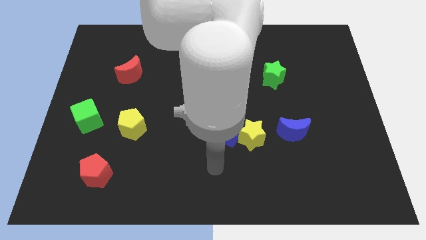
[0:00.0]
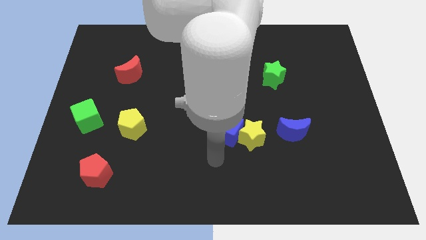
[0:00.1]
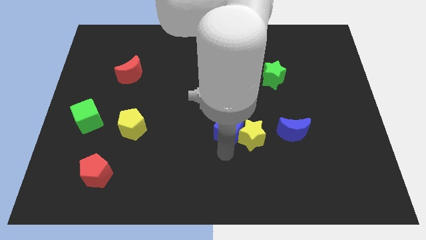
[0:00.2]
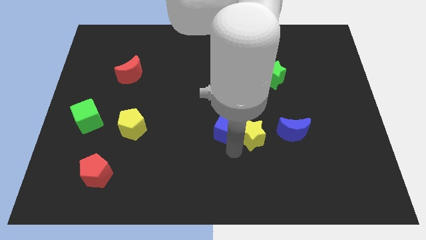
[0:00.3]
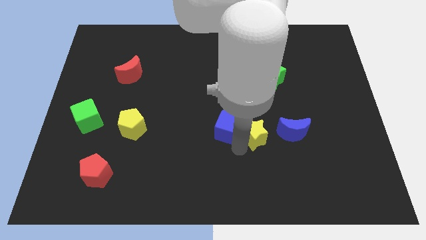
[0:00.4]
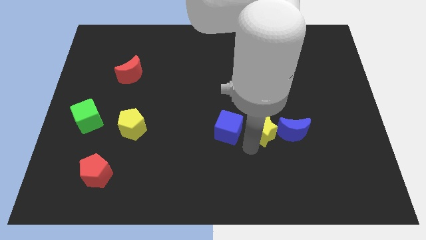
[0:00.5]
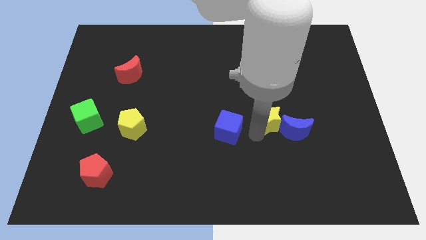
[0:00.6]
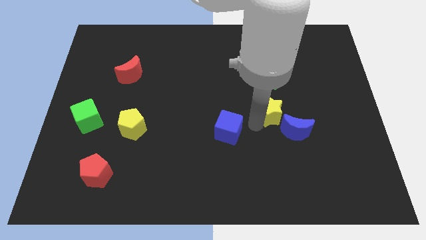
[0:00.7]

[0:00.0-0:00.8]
move the blue cube away from the yellow star

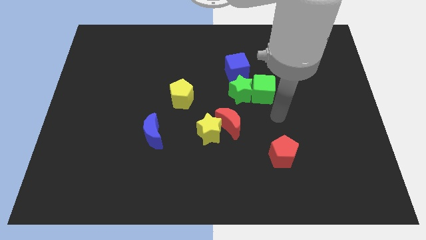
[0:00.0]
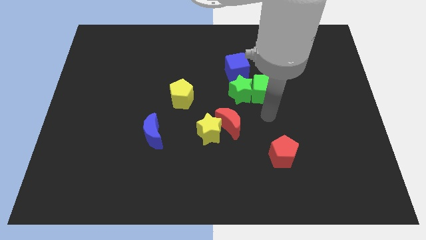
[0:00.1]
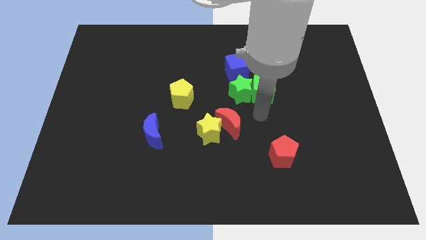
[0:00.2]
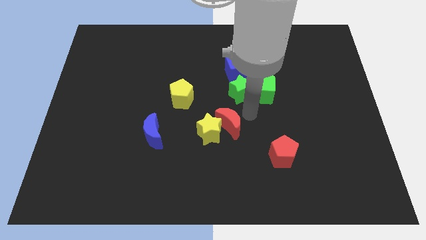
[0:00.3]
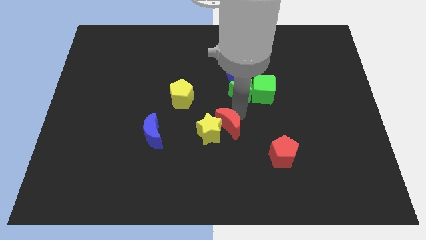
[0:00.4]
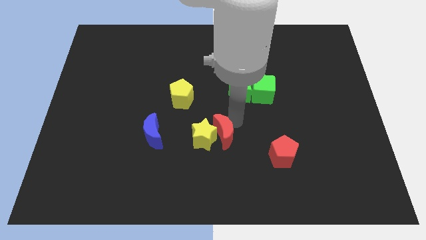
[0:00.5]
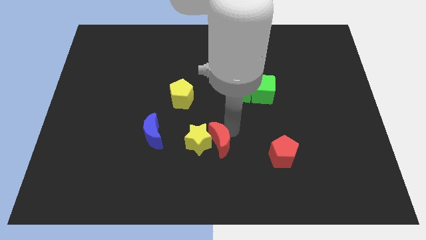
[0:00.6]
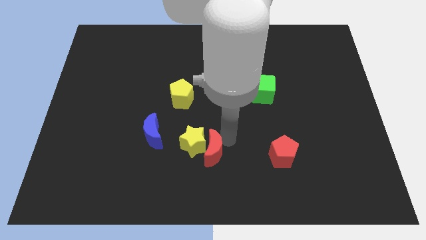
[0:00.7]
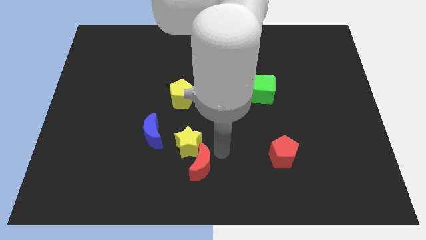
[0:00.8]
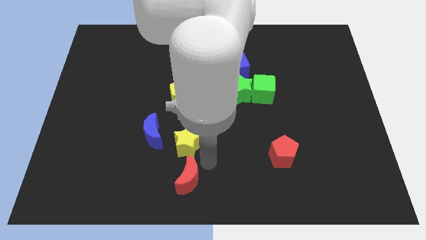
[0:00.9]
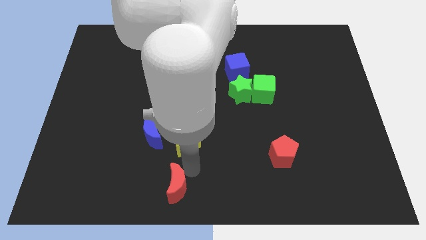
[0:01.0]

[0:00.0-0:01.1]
separate the yellow star from the red moon

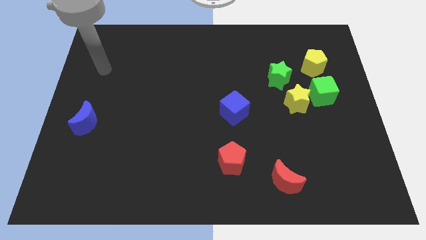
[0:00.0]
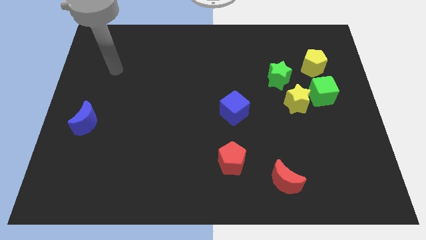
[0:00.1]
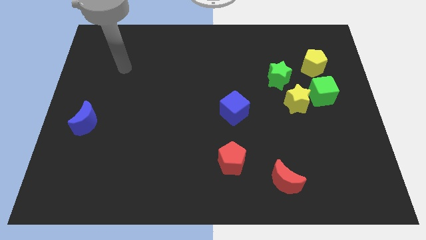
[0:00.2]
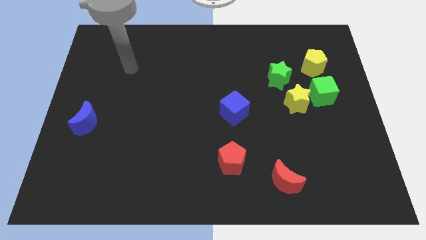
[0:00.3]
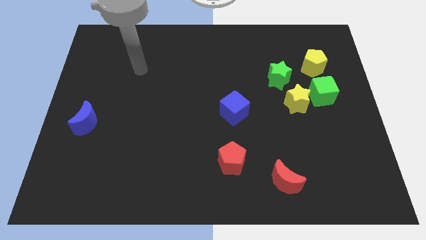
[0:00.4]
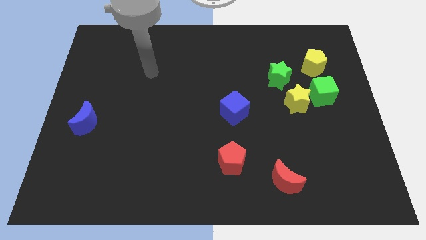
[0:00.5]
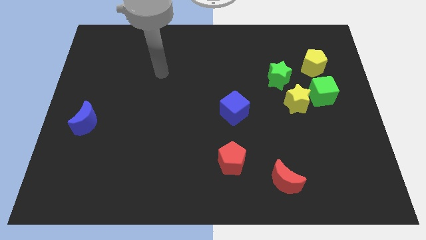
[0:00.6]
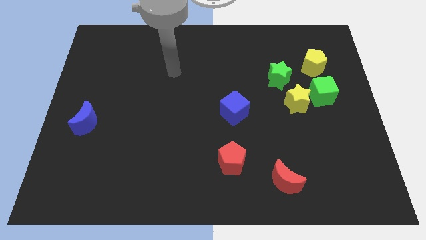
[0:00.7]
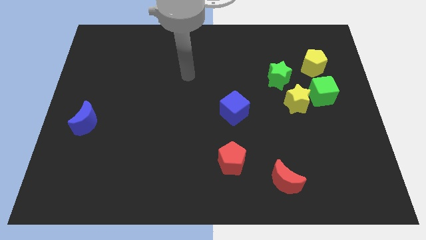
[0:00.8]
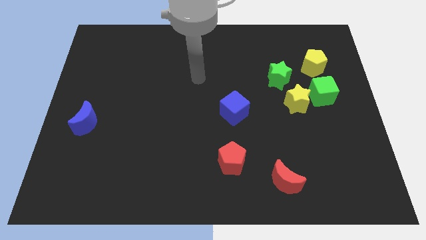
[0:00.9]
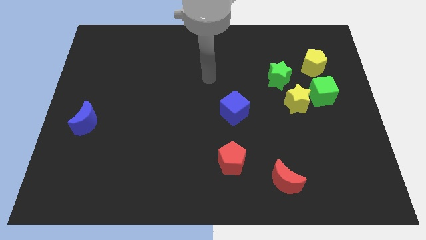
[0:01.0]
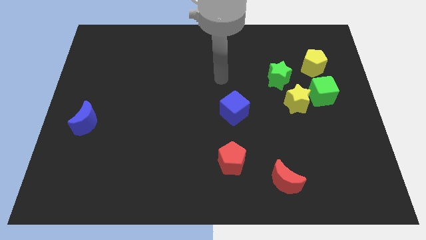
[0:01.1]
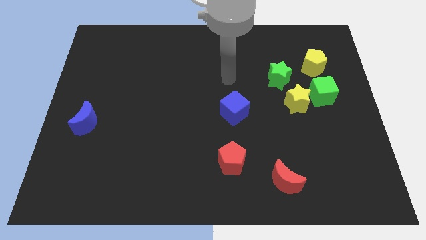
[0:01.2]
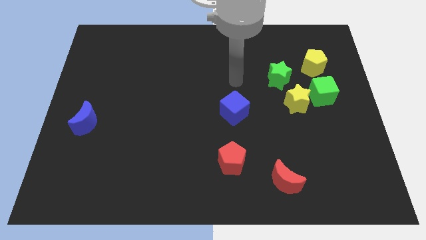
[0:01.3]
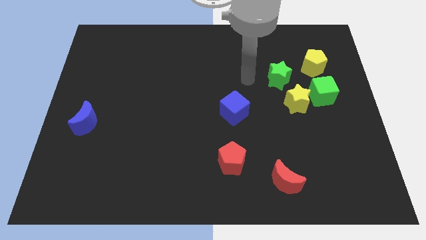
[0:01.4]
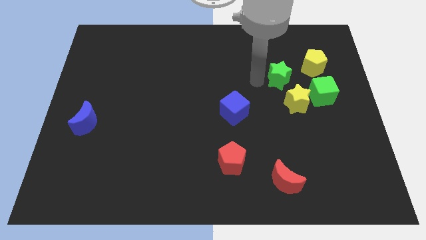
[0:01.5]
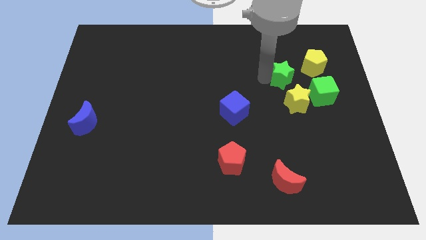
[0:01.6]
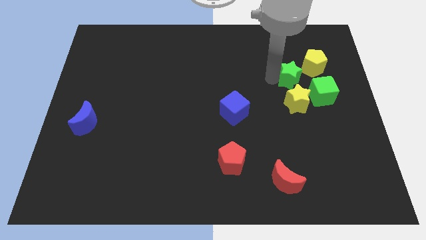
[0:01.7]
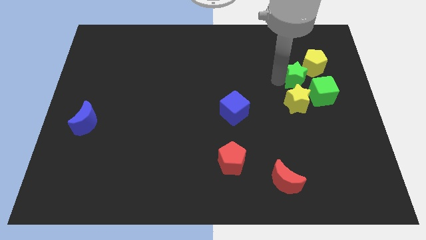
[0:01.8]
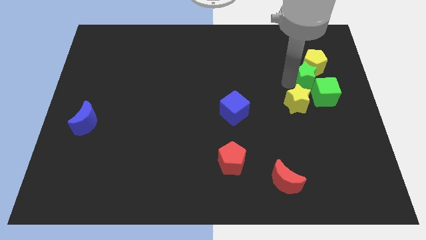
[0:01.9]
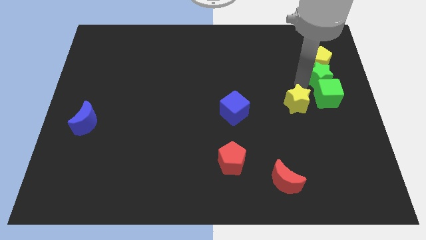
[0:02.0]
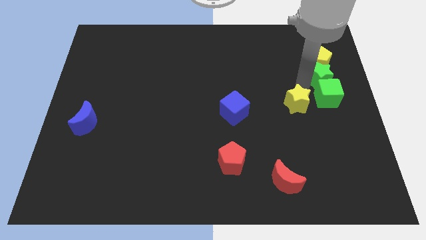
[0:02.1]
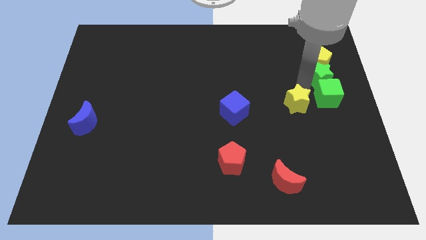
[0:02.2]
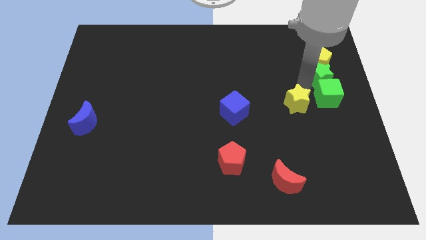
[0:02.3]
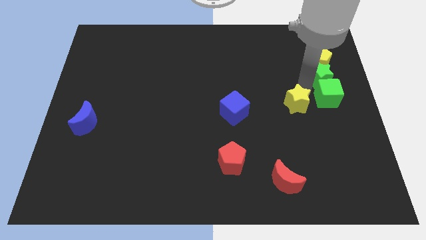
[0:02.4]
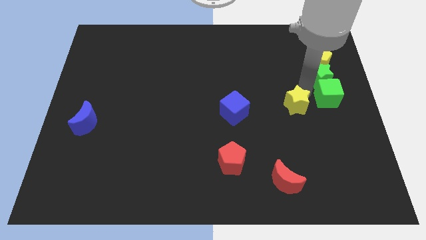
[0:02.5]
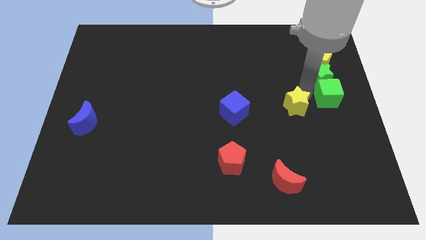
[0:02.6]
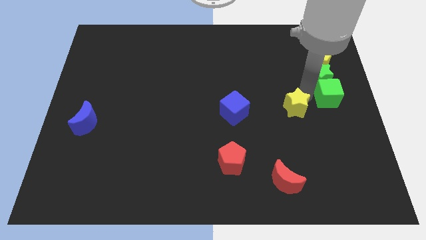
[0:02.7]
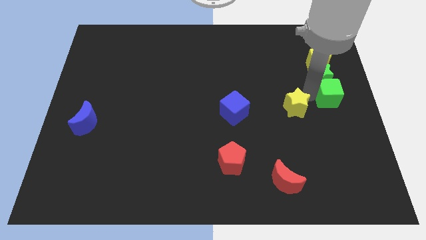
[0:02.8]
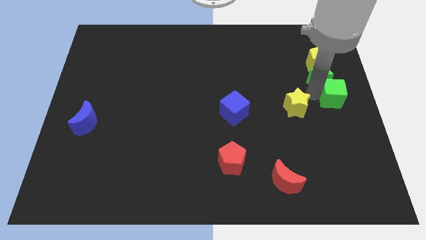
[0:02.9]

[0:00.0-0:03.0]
separate the yellow star from the green cube and green star

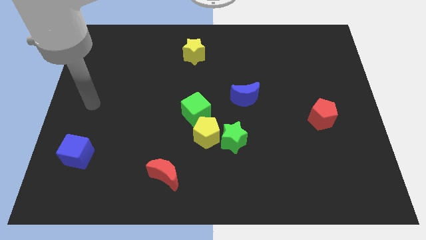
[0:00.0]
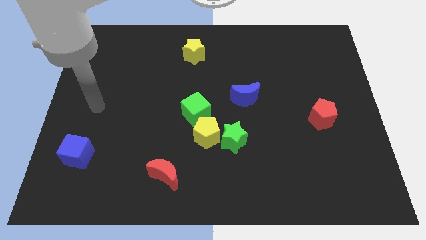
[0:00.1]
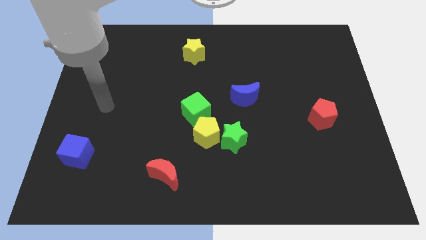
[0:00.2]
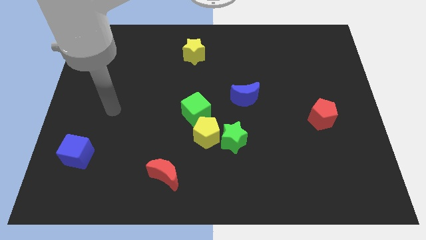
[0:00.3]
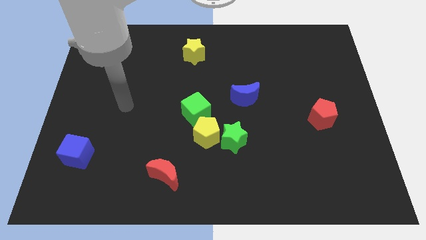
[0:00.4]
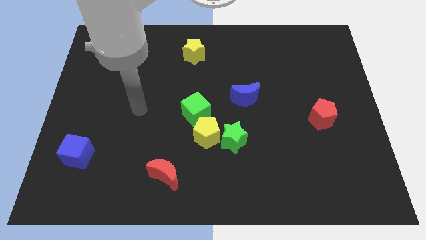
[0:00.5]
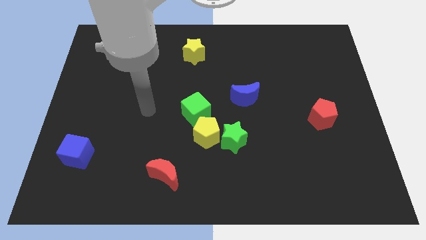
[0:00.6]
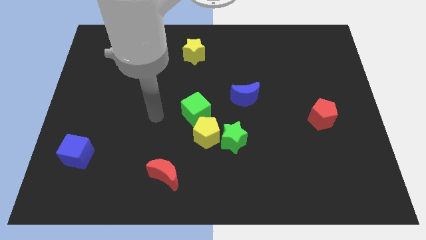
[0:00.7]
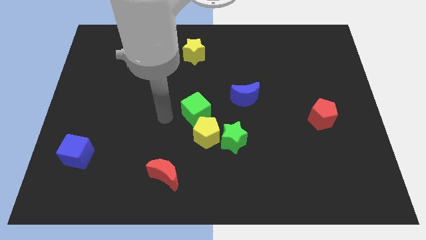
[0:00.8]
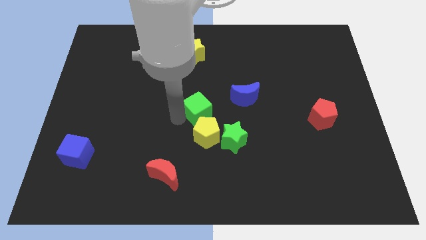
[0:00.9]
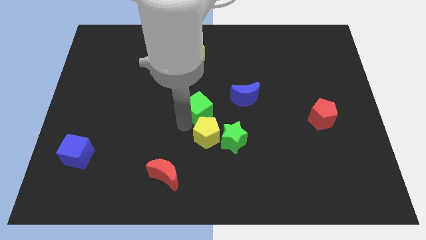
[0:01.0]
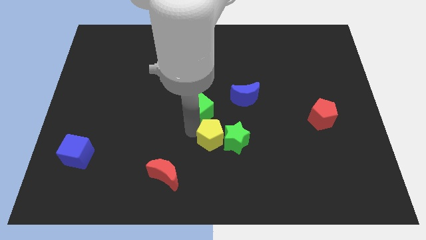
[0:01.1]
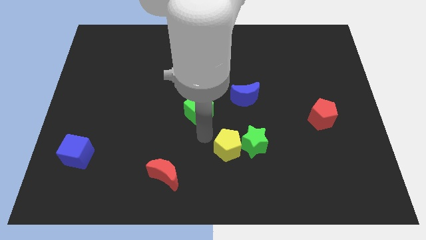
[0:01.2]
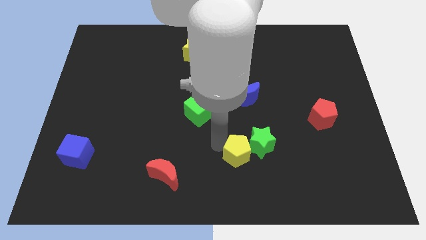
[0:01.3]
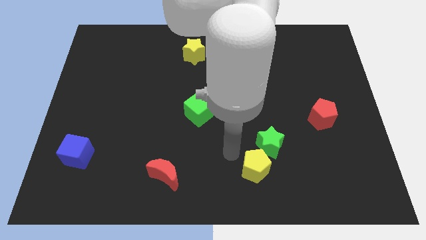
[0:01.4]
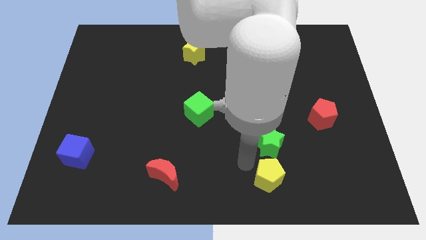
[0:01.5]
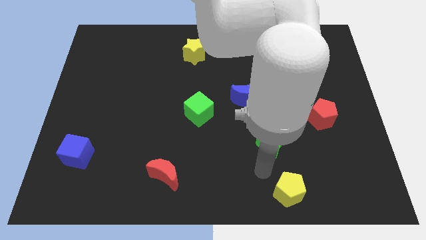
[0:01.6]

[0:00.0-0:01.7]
pull the green star apart from the yellow pentagon

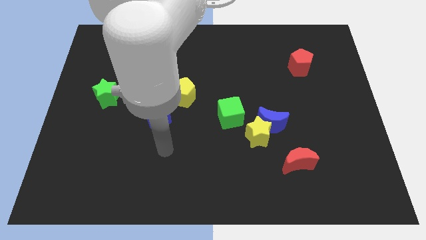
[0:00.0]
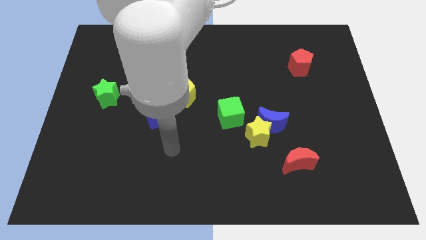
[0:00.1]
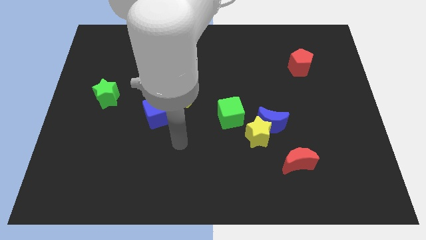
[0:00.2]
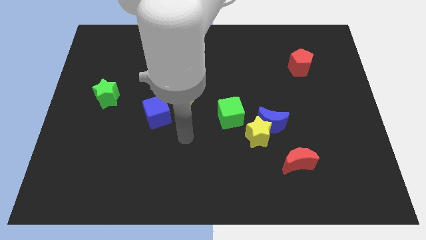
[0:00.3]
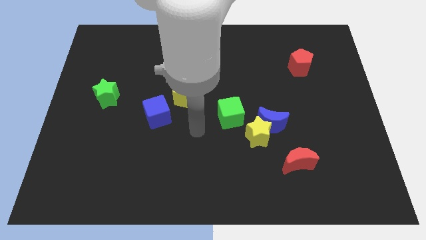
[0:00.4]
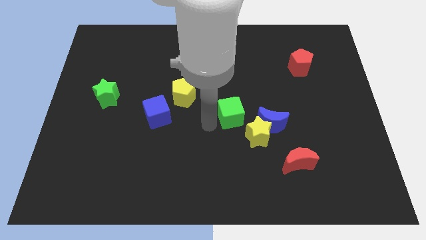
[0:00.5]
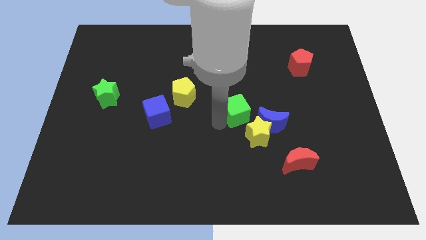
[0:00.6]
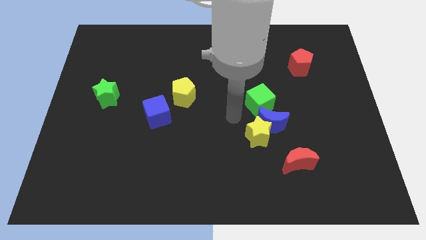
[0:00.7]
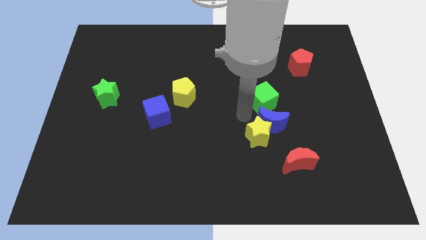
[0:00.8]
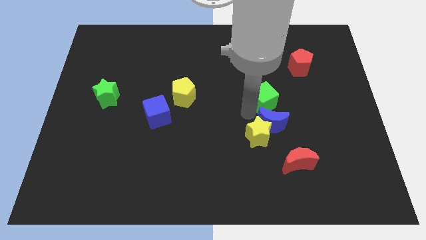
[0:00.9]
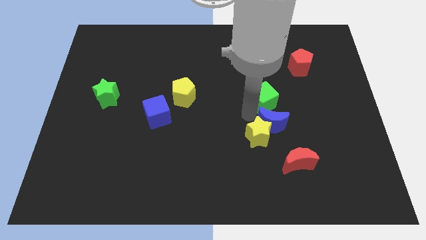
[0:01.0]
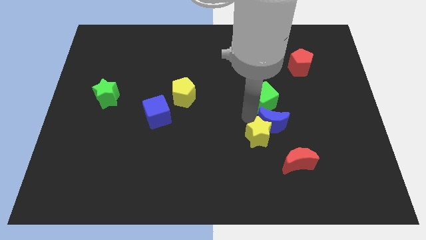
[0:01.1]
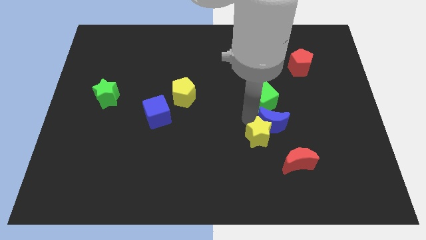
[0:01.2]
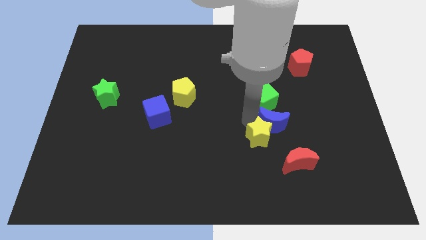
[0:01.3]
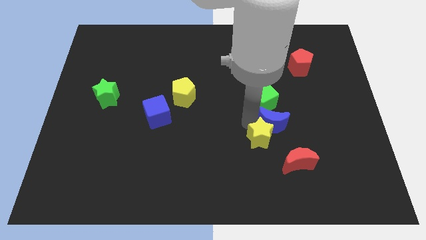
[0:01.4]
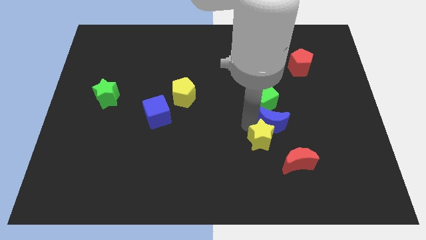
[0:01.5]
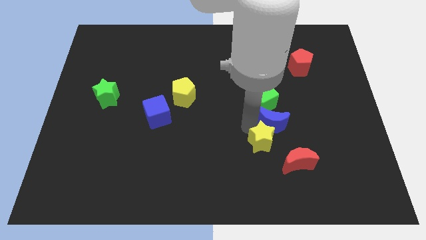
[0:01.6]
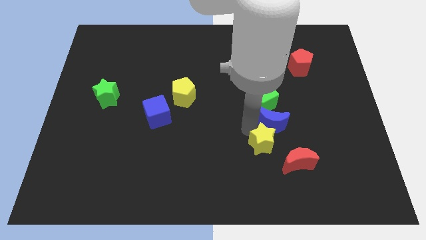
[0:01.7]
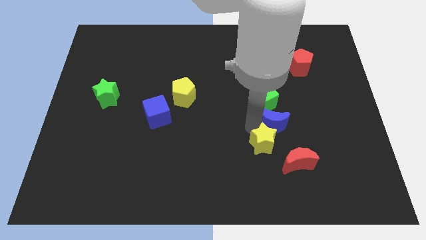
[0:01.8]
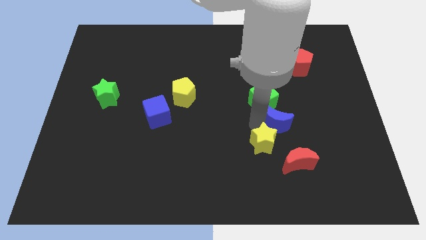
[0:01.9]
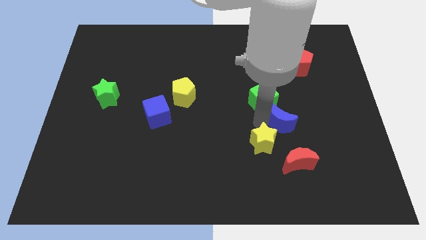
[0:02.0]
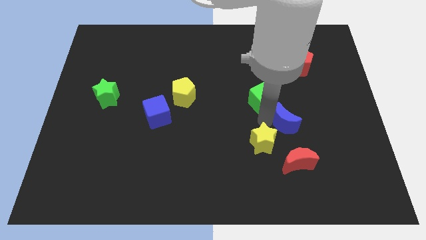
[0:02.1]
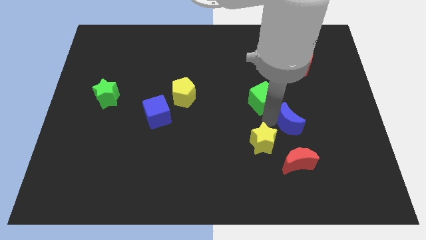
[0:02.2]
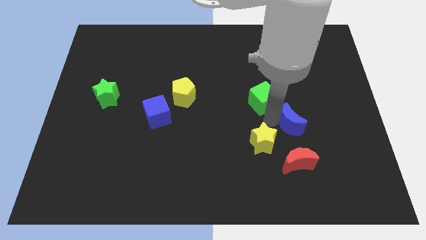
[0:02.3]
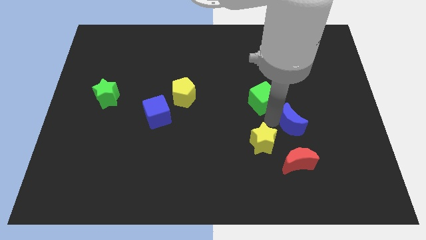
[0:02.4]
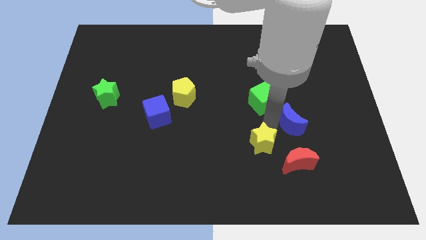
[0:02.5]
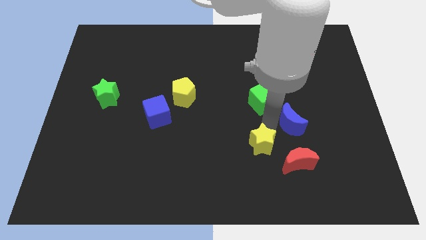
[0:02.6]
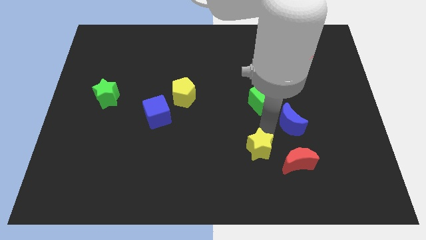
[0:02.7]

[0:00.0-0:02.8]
move the yellow star away from the blue moon and green cube
